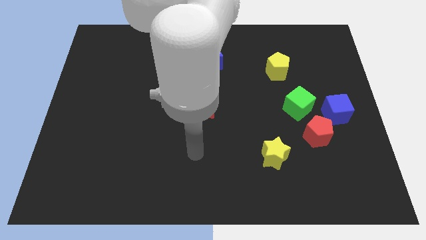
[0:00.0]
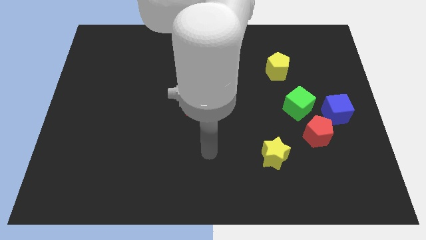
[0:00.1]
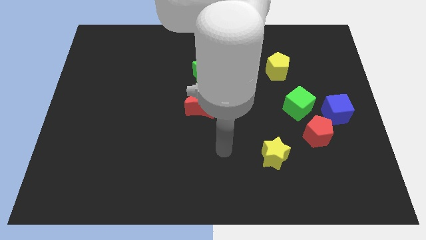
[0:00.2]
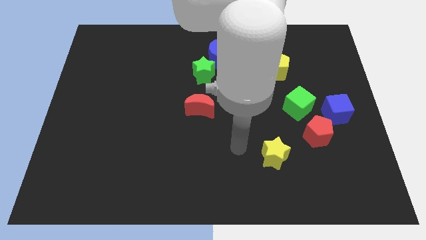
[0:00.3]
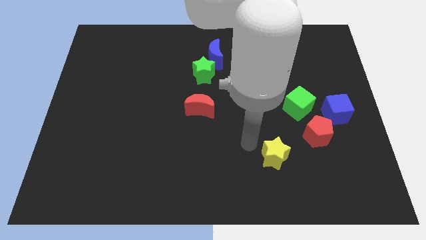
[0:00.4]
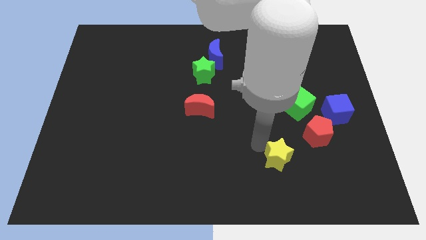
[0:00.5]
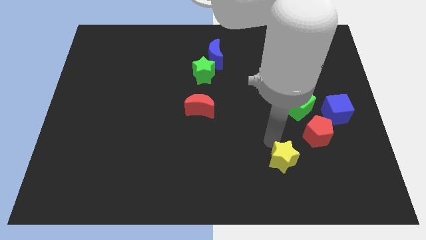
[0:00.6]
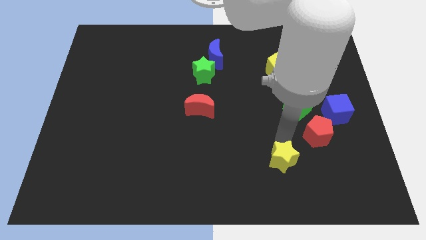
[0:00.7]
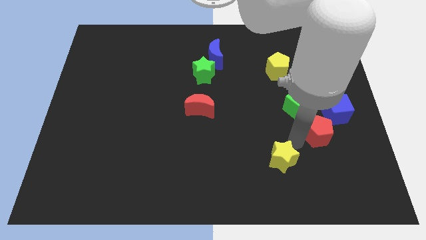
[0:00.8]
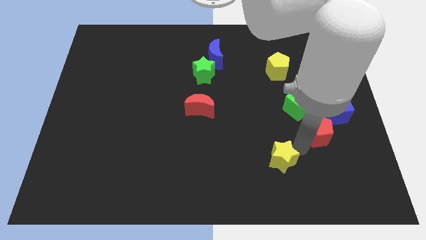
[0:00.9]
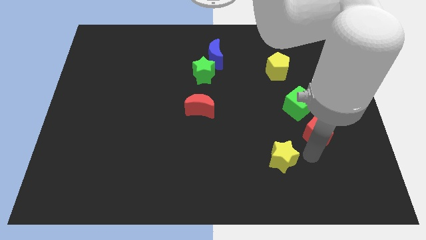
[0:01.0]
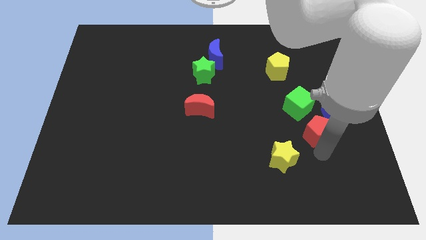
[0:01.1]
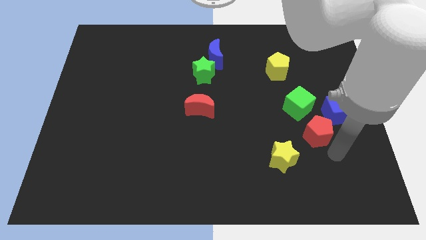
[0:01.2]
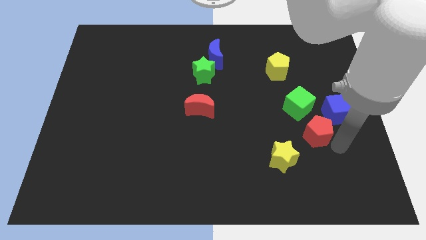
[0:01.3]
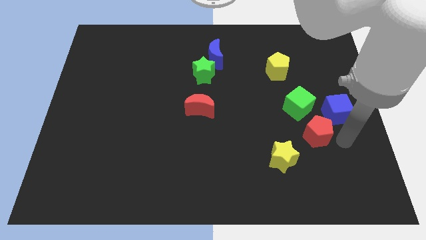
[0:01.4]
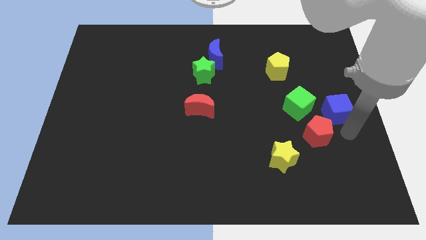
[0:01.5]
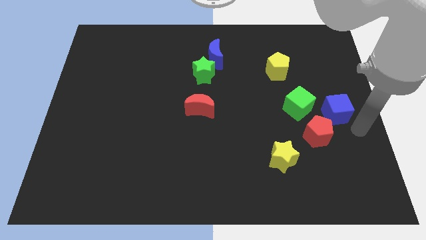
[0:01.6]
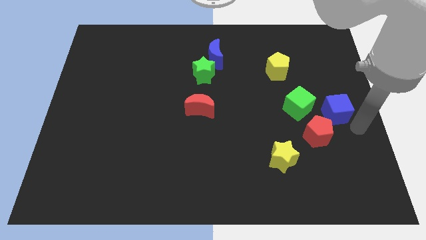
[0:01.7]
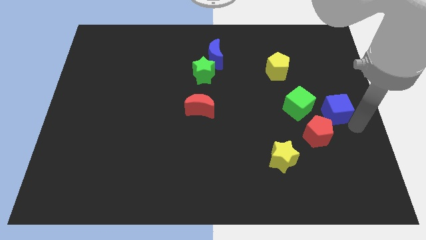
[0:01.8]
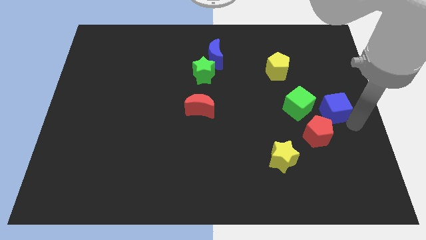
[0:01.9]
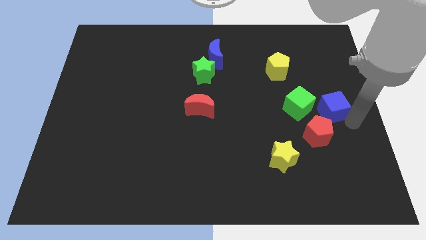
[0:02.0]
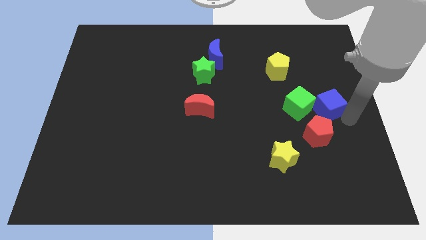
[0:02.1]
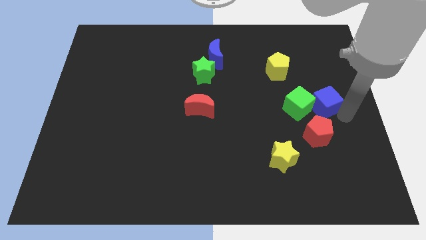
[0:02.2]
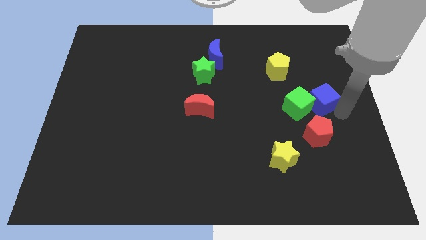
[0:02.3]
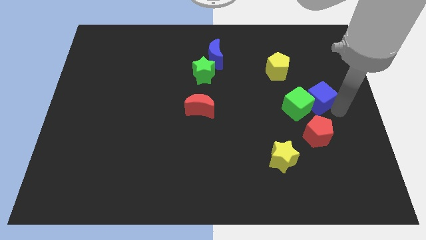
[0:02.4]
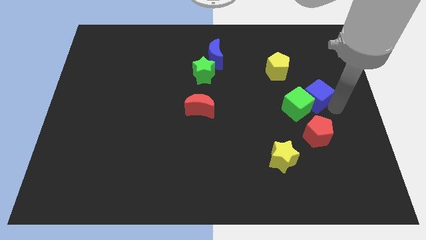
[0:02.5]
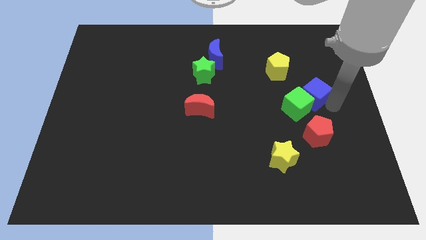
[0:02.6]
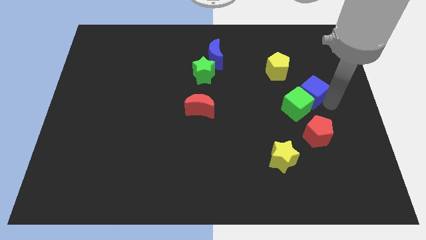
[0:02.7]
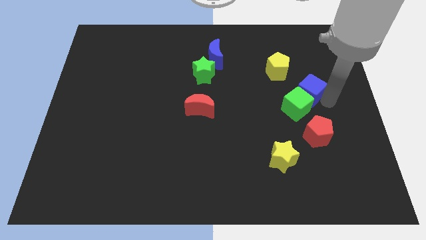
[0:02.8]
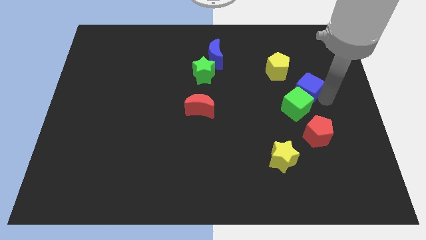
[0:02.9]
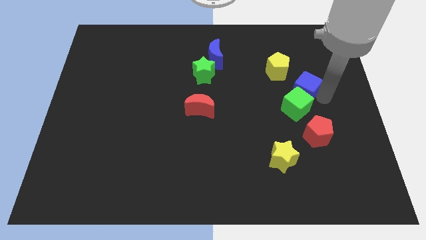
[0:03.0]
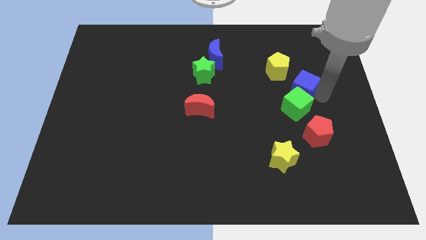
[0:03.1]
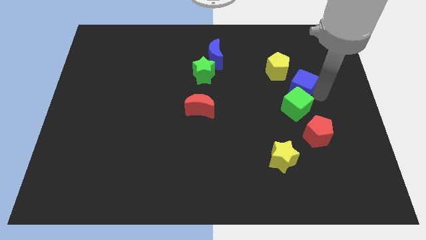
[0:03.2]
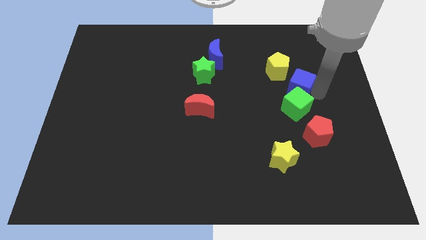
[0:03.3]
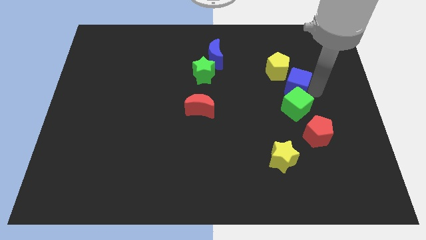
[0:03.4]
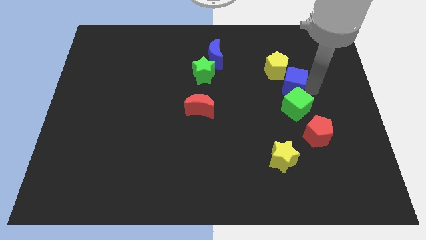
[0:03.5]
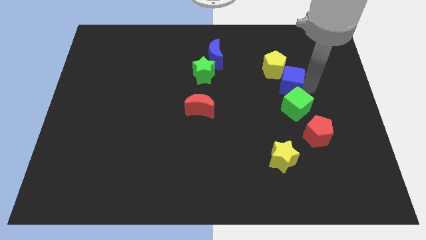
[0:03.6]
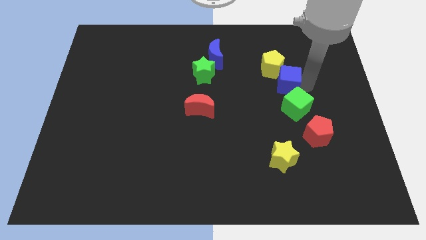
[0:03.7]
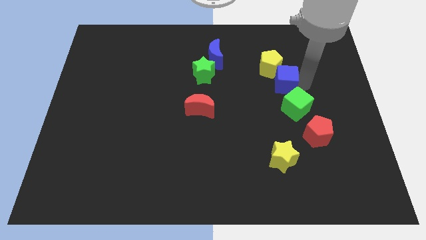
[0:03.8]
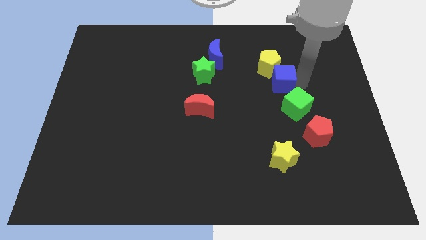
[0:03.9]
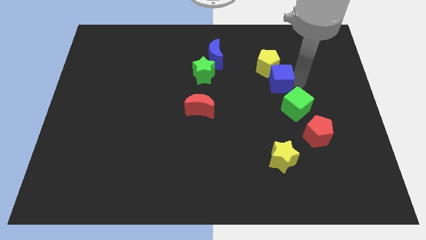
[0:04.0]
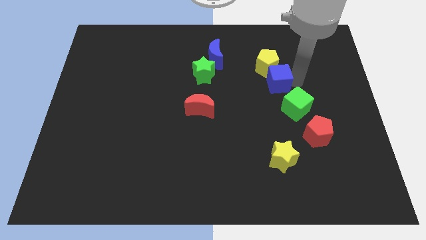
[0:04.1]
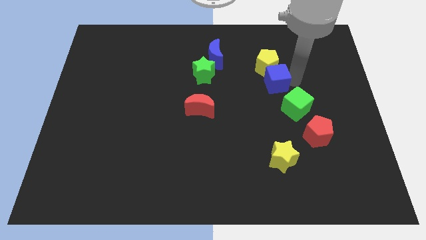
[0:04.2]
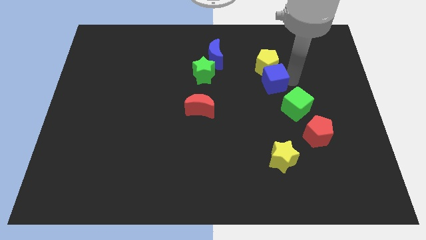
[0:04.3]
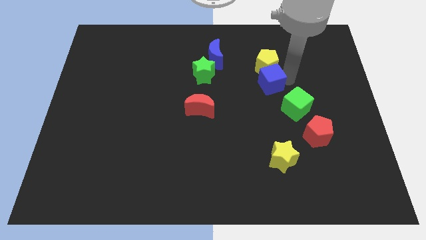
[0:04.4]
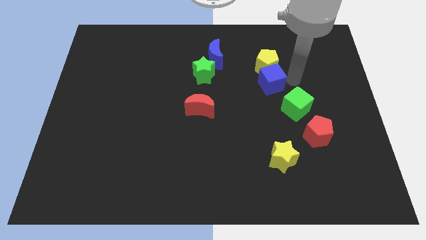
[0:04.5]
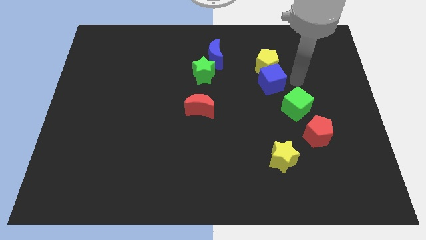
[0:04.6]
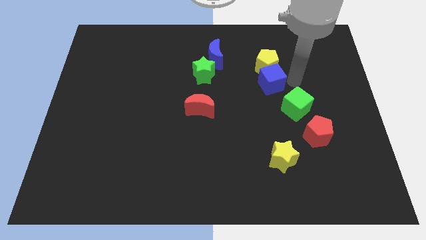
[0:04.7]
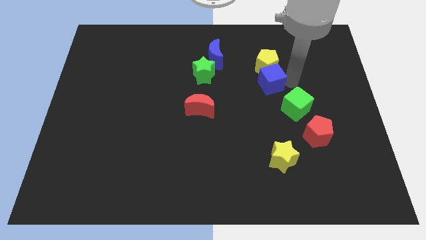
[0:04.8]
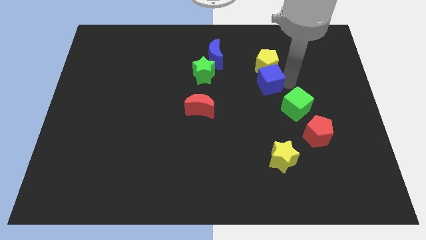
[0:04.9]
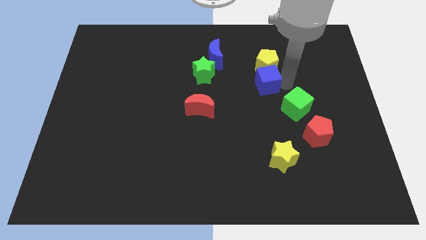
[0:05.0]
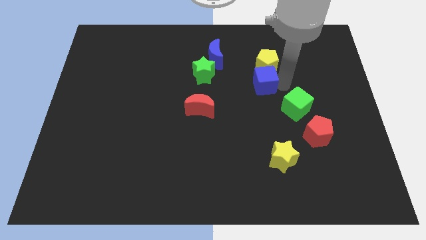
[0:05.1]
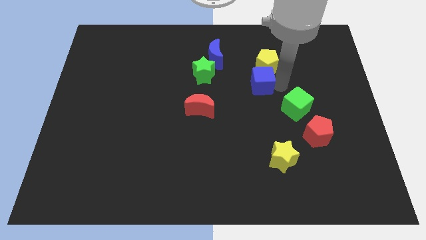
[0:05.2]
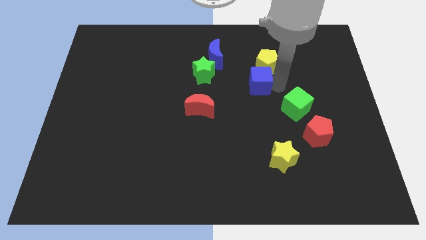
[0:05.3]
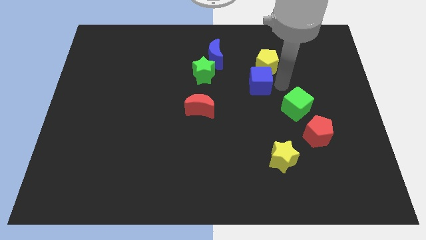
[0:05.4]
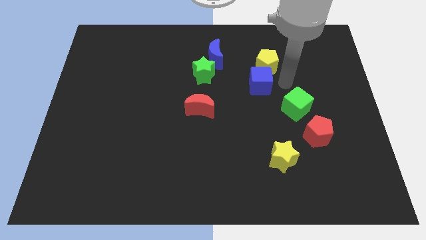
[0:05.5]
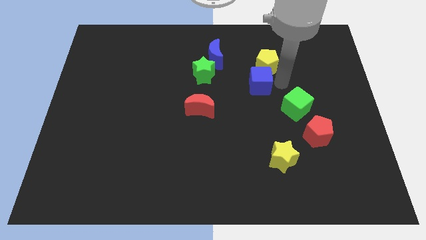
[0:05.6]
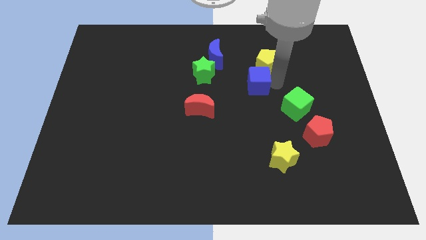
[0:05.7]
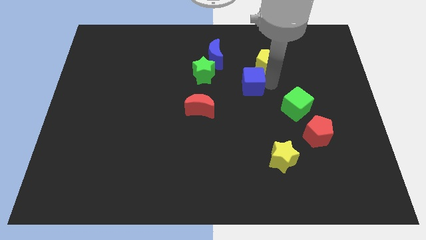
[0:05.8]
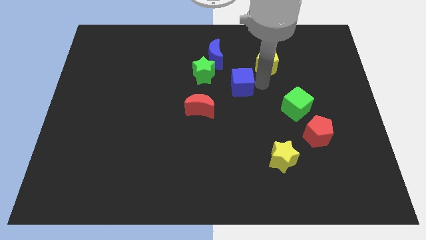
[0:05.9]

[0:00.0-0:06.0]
move the blue cube diagonally up and to the right of the red moon
